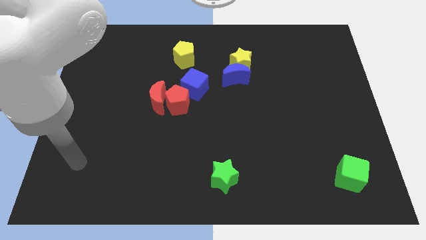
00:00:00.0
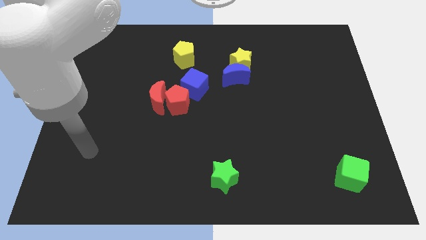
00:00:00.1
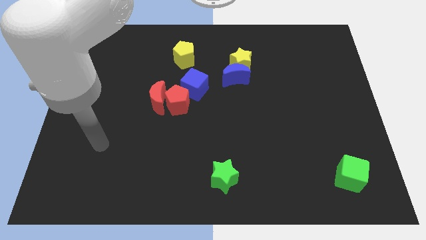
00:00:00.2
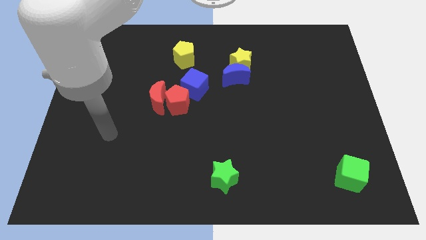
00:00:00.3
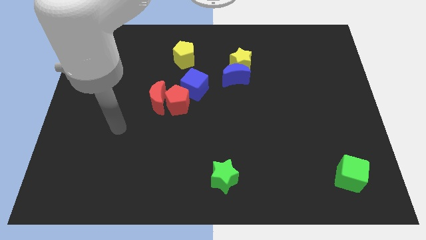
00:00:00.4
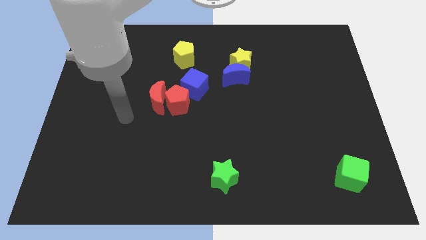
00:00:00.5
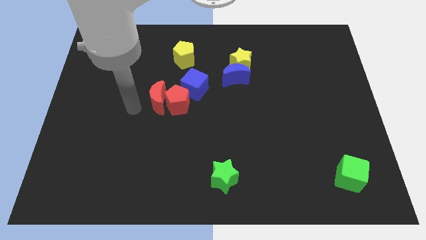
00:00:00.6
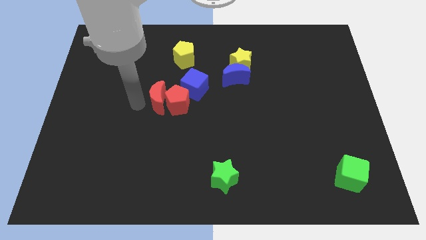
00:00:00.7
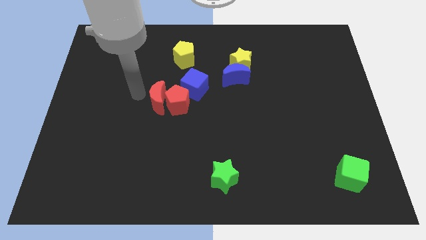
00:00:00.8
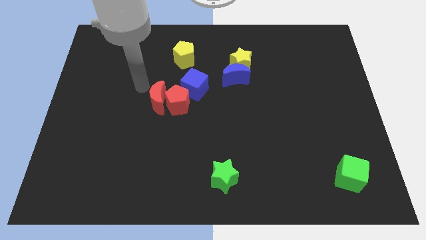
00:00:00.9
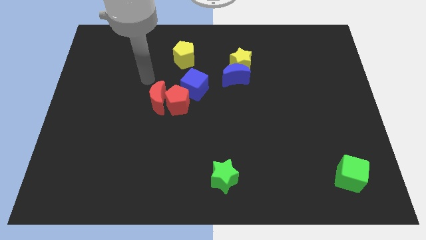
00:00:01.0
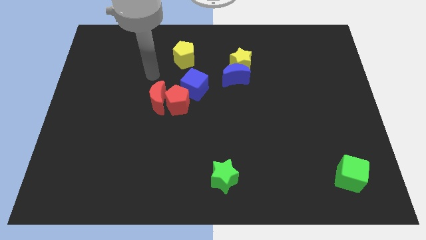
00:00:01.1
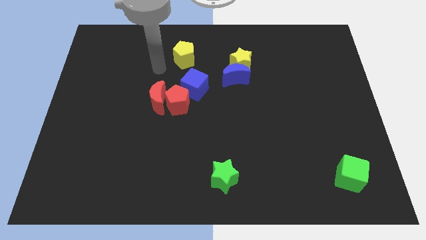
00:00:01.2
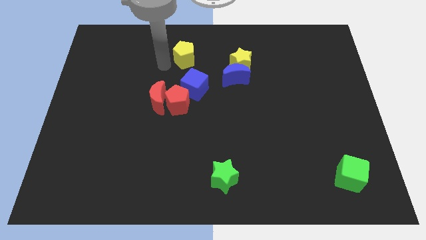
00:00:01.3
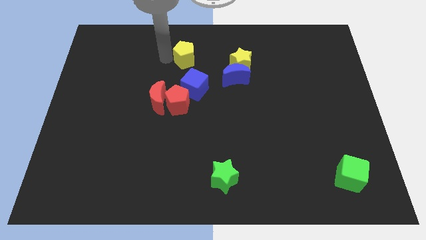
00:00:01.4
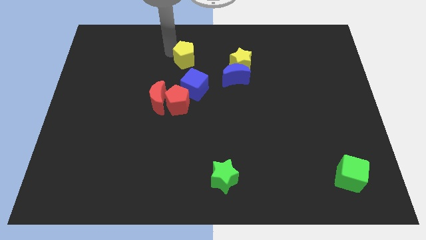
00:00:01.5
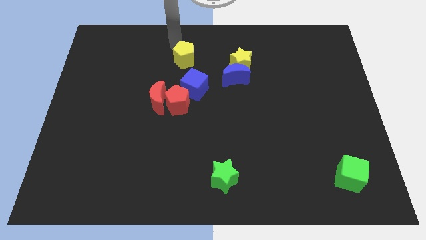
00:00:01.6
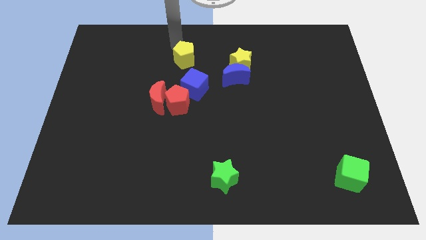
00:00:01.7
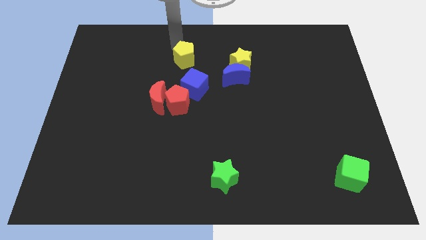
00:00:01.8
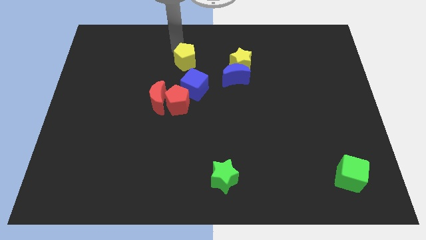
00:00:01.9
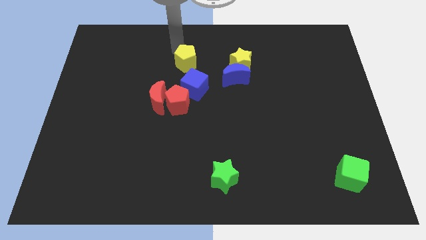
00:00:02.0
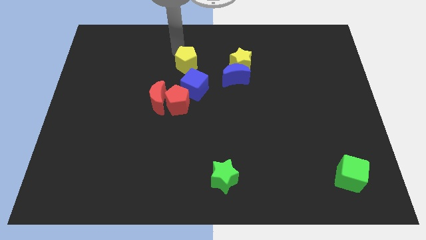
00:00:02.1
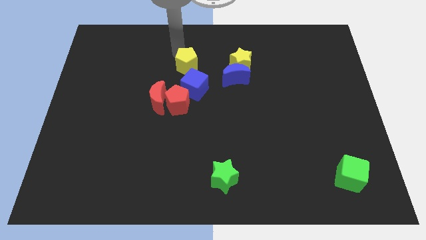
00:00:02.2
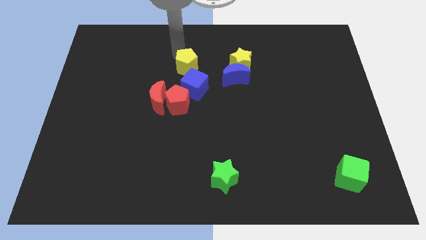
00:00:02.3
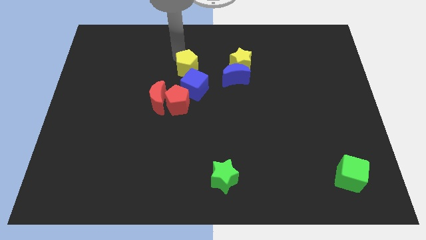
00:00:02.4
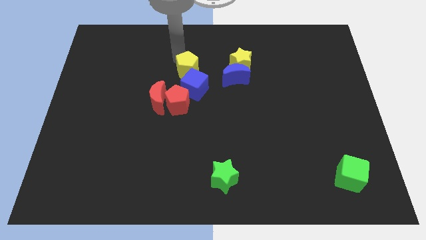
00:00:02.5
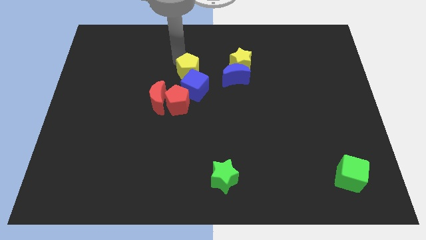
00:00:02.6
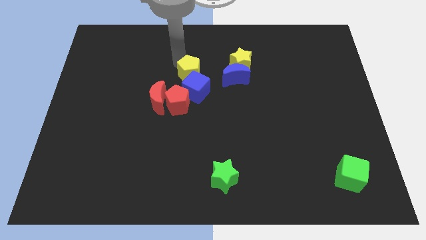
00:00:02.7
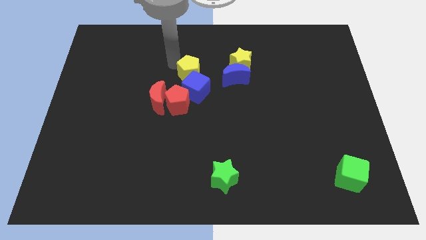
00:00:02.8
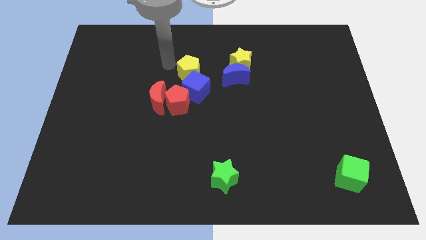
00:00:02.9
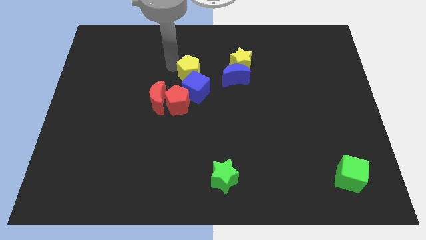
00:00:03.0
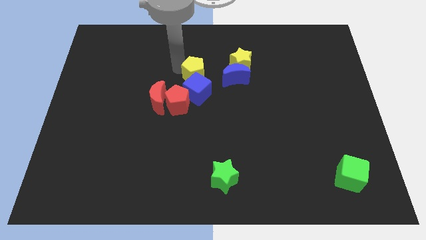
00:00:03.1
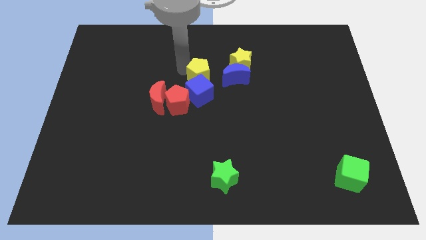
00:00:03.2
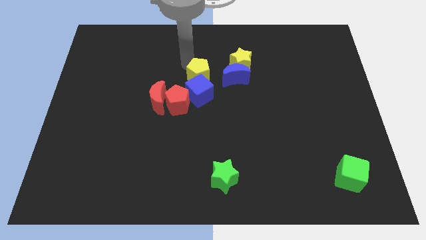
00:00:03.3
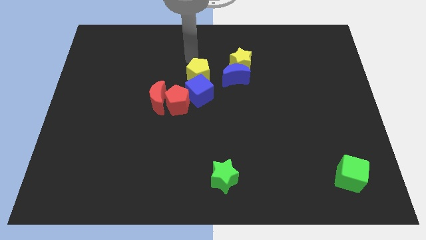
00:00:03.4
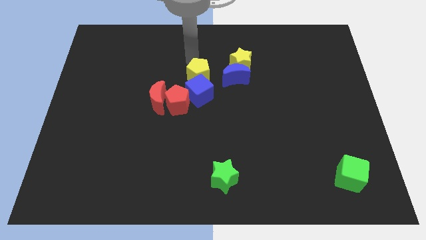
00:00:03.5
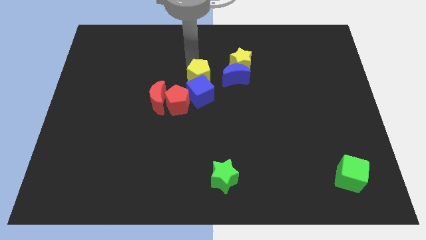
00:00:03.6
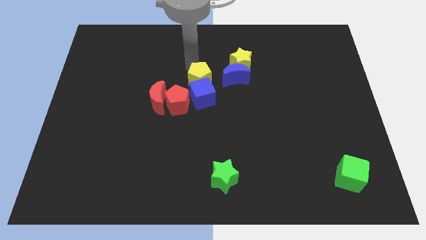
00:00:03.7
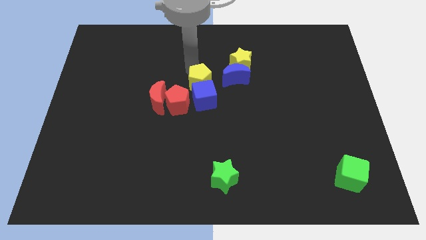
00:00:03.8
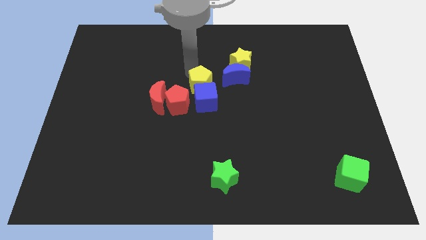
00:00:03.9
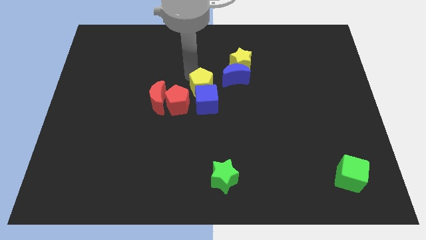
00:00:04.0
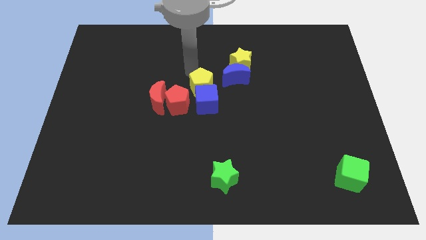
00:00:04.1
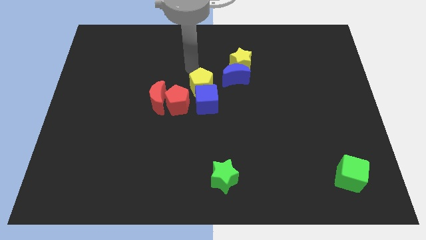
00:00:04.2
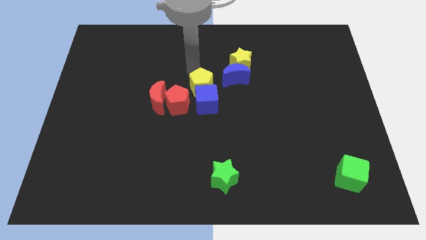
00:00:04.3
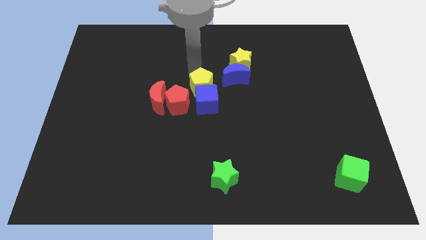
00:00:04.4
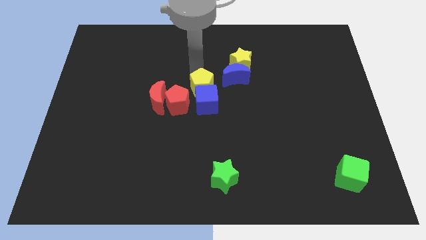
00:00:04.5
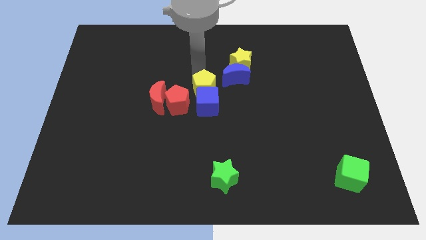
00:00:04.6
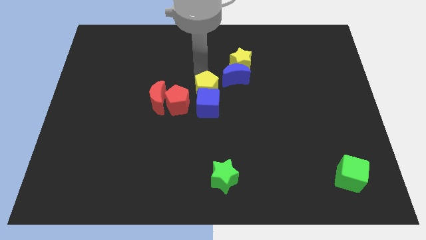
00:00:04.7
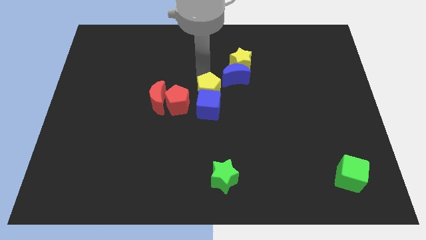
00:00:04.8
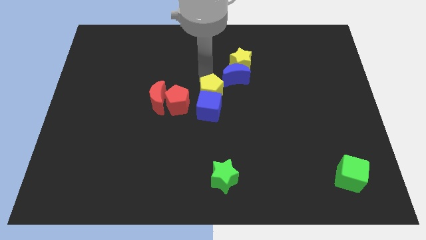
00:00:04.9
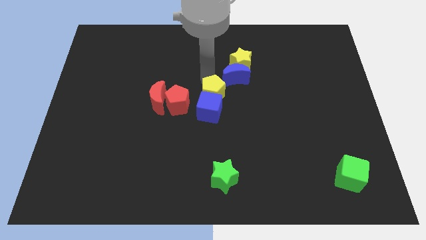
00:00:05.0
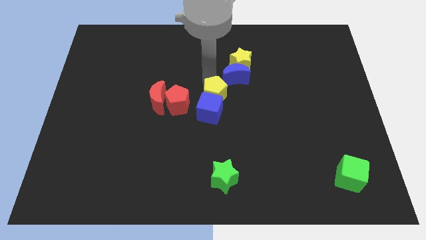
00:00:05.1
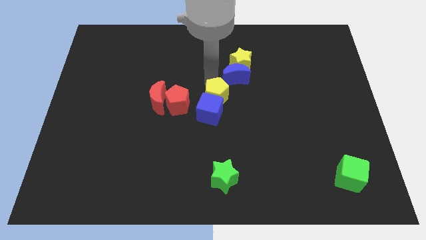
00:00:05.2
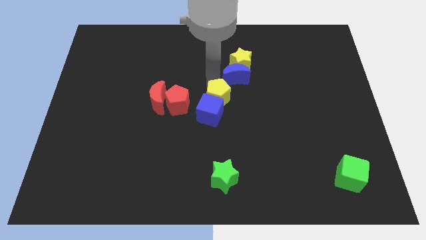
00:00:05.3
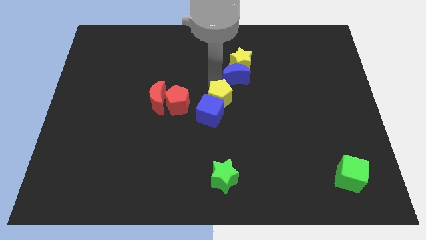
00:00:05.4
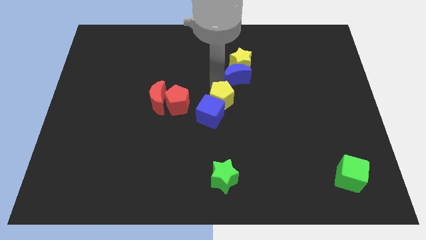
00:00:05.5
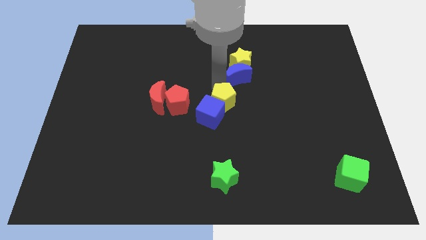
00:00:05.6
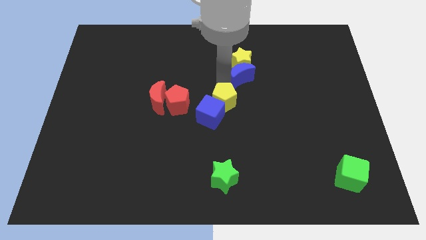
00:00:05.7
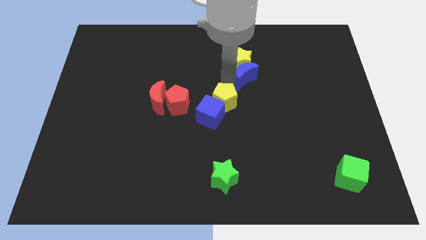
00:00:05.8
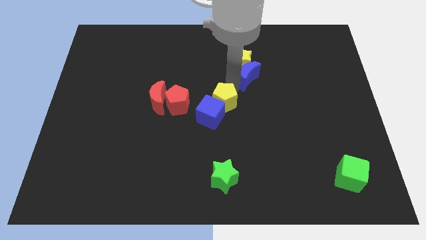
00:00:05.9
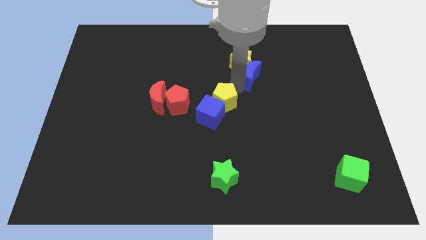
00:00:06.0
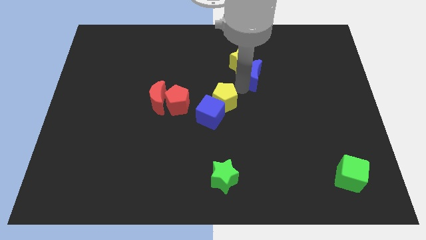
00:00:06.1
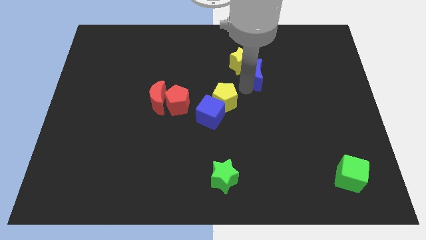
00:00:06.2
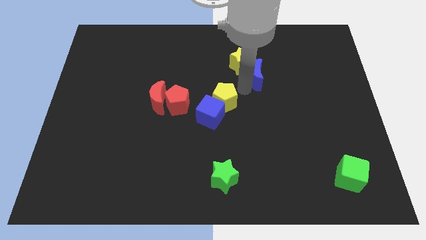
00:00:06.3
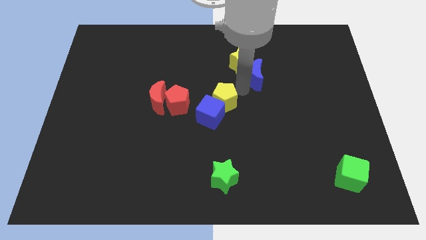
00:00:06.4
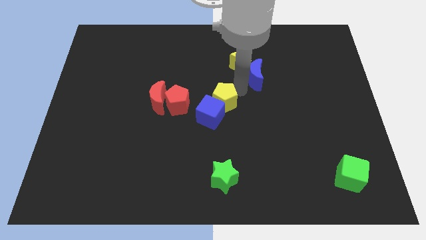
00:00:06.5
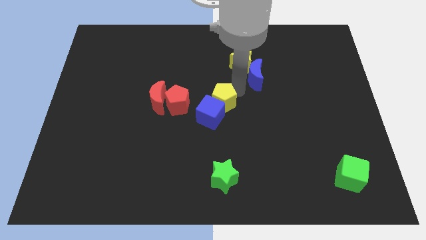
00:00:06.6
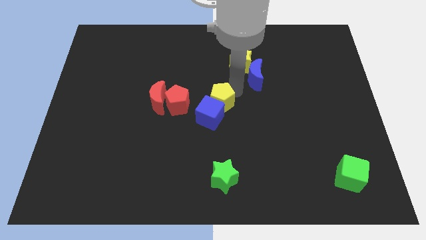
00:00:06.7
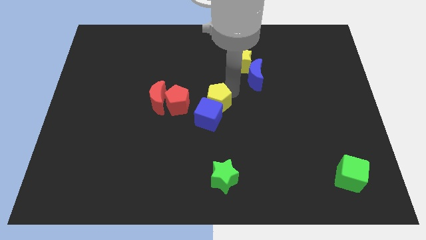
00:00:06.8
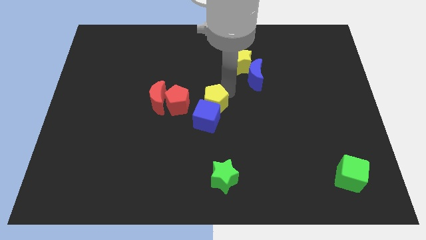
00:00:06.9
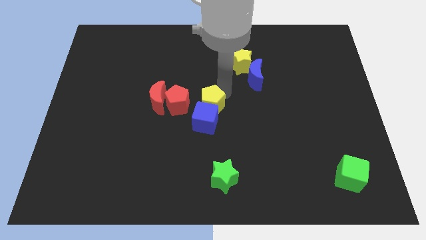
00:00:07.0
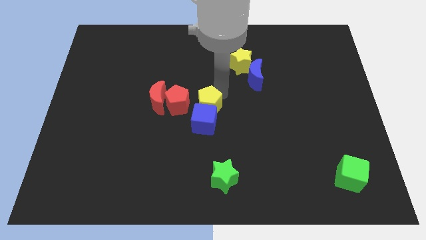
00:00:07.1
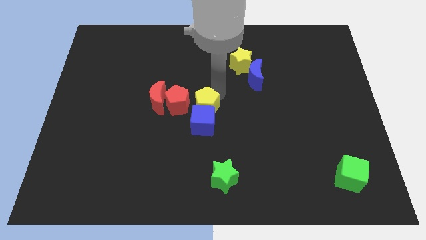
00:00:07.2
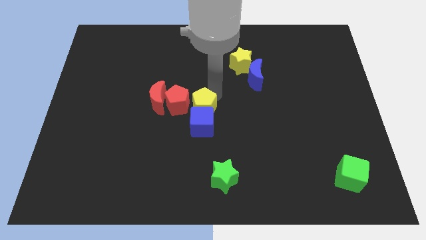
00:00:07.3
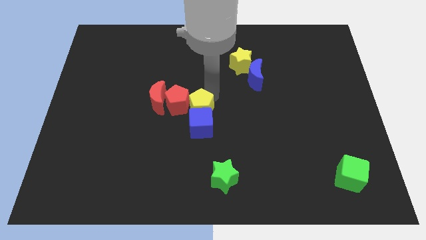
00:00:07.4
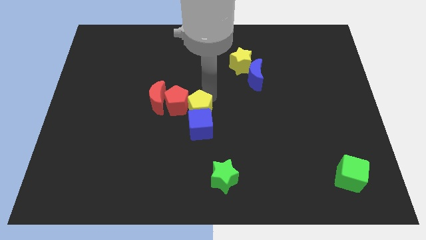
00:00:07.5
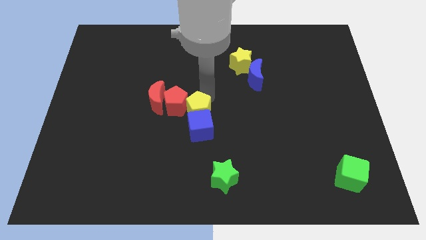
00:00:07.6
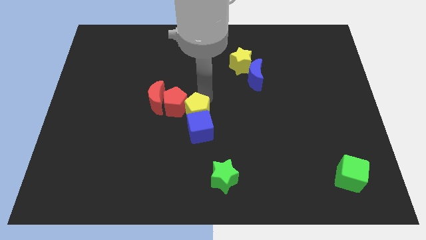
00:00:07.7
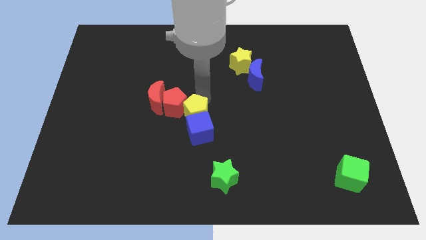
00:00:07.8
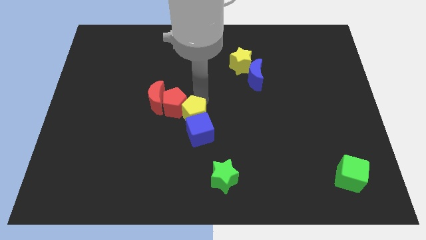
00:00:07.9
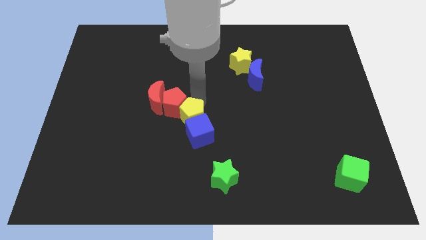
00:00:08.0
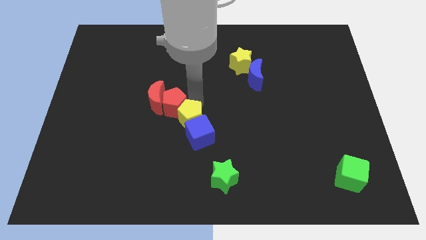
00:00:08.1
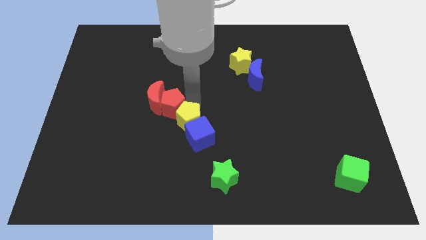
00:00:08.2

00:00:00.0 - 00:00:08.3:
push the yellow pentagon down
